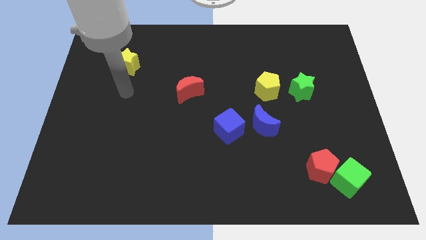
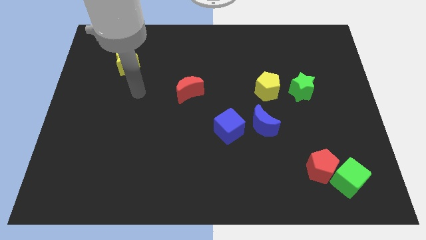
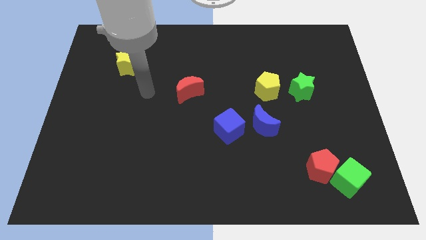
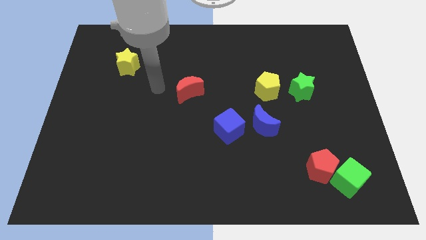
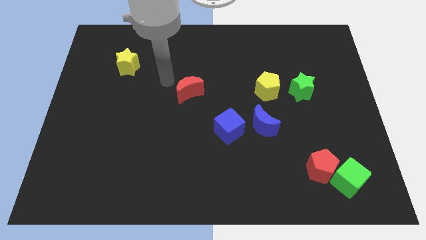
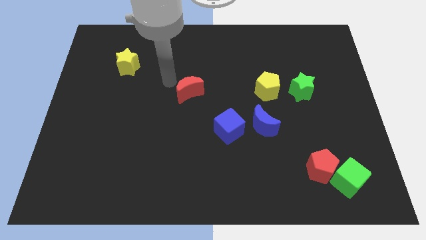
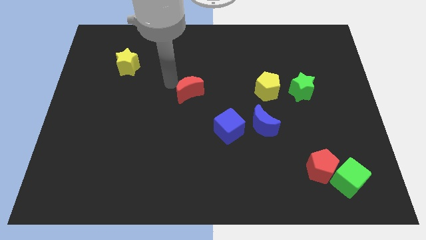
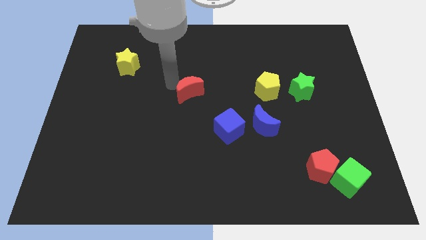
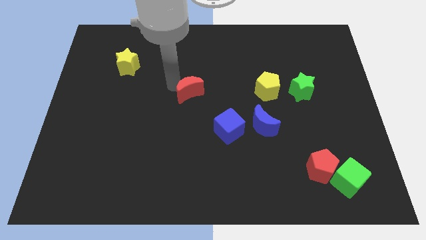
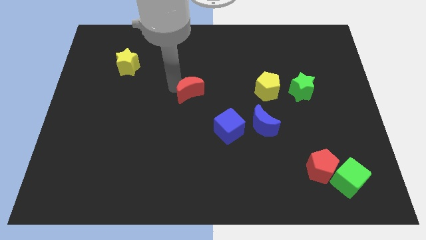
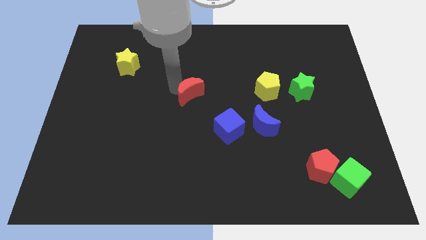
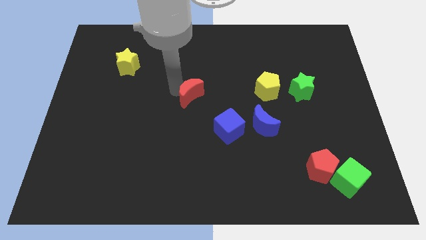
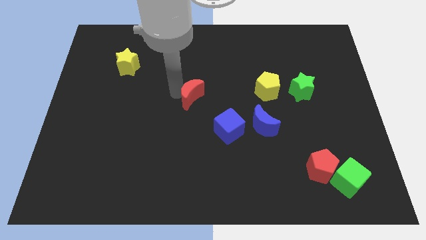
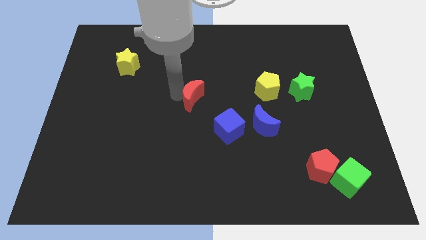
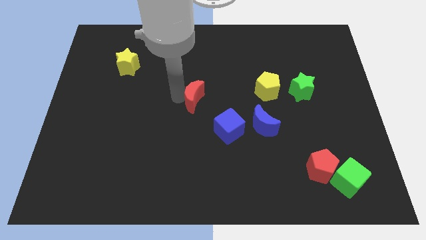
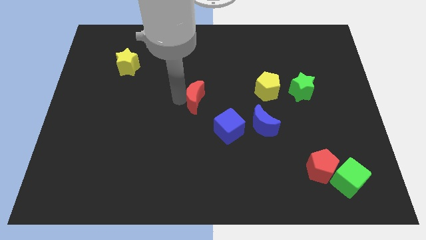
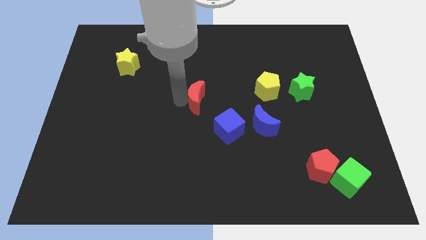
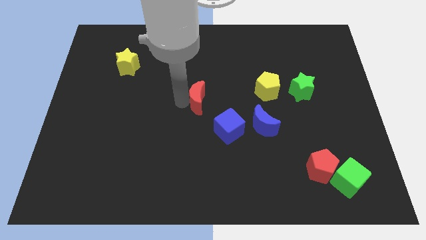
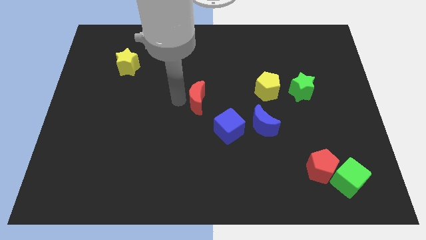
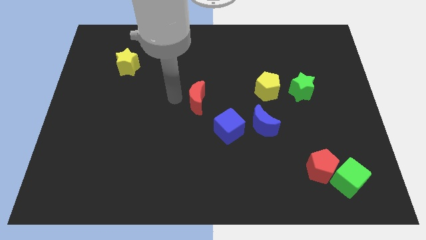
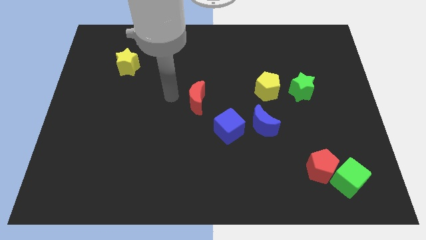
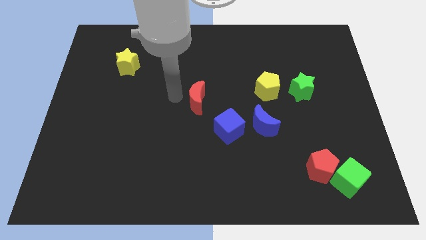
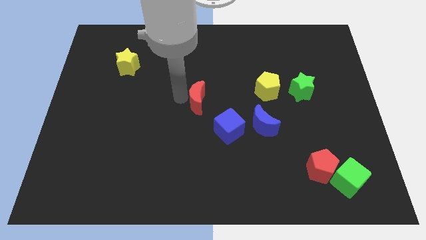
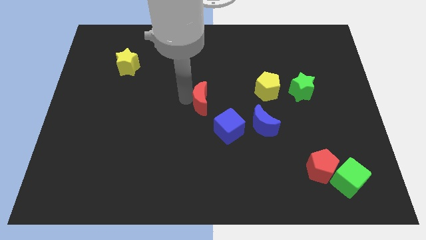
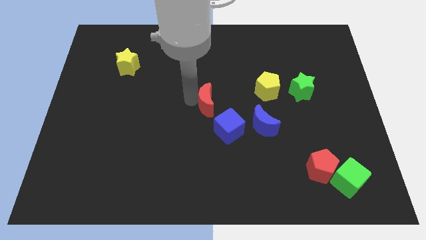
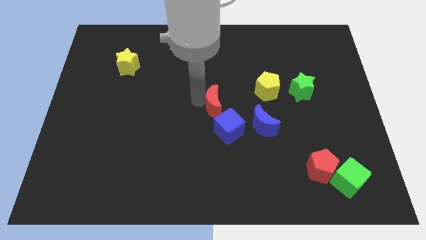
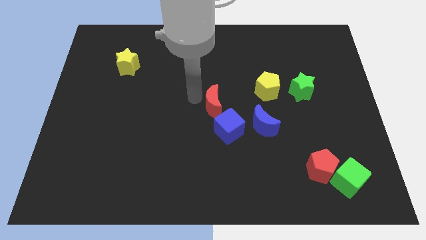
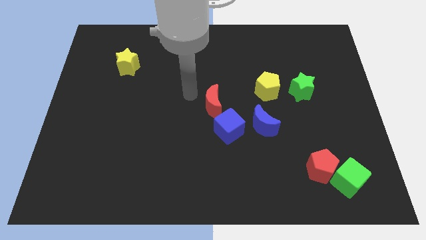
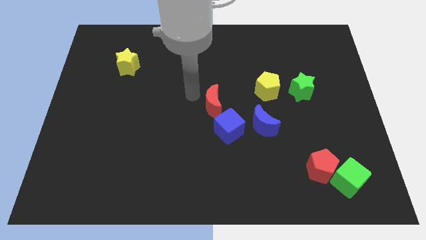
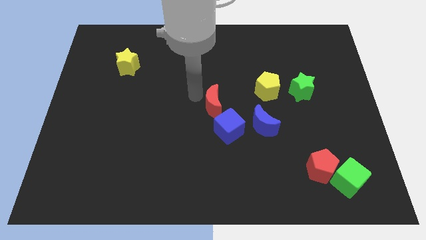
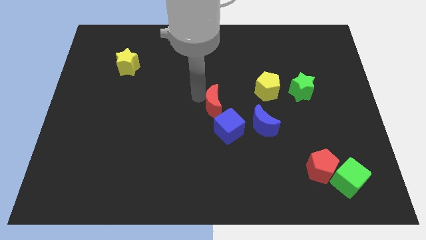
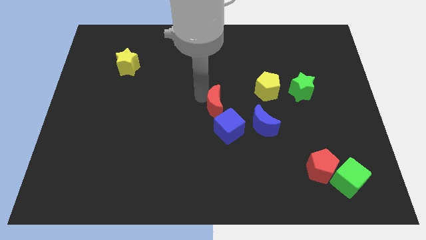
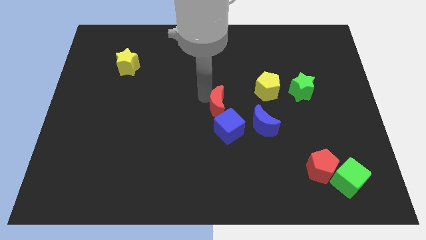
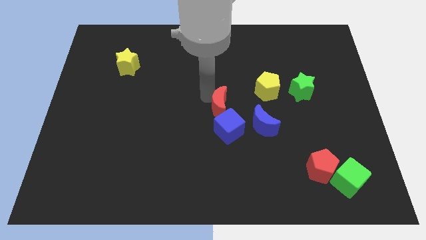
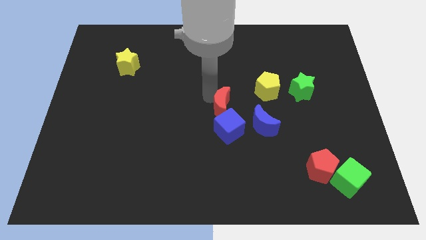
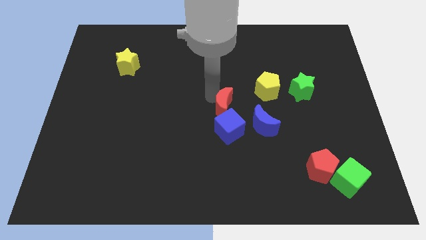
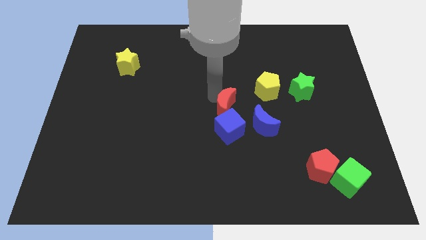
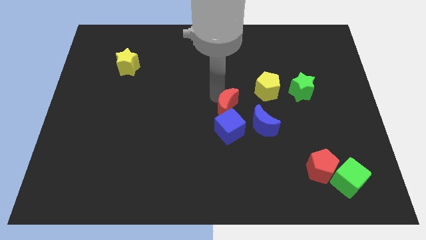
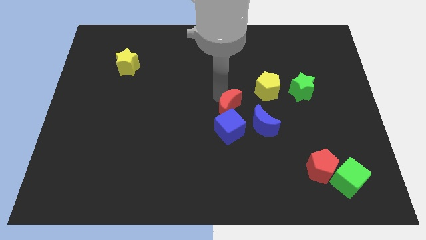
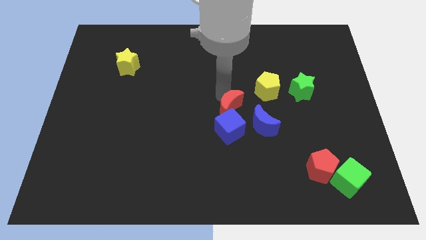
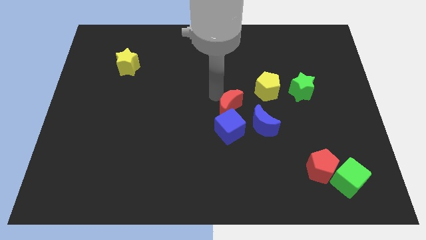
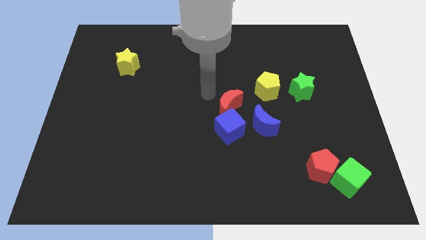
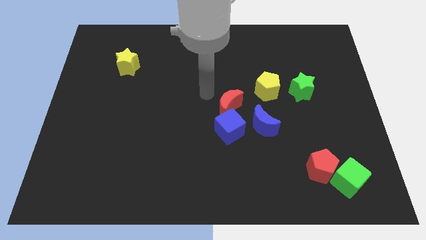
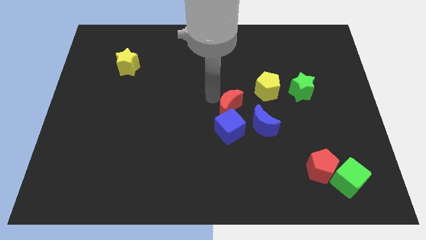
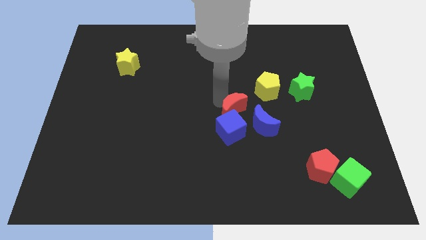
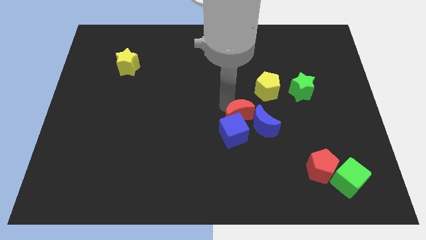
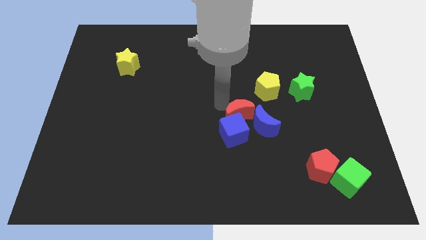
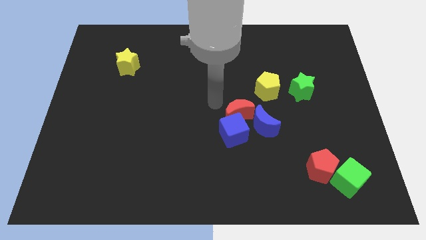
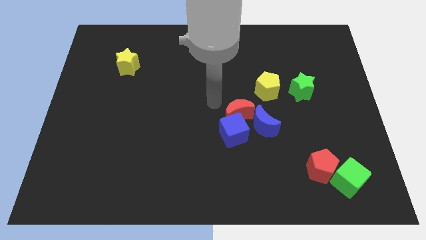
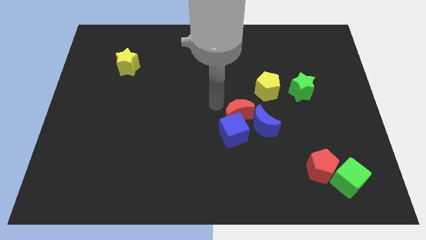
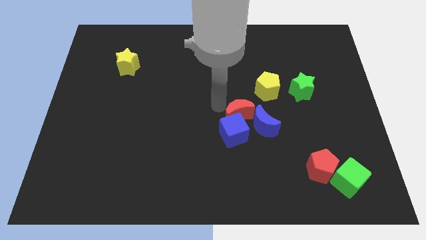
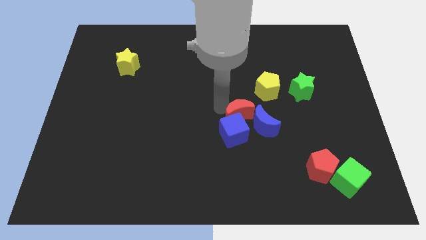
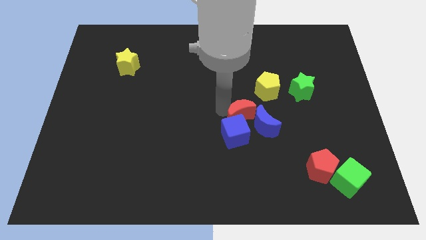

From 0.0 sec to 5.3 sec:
slide the red moon towards the blue moon

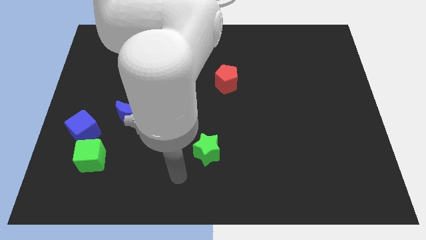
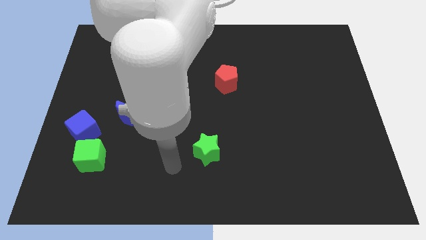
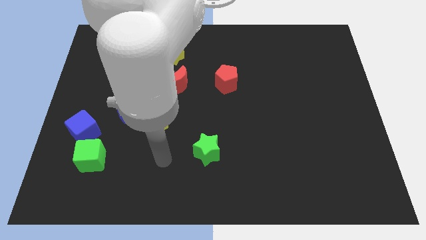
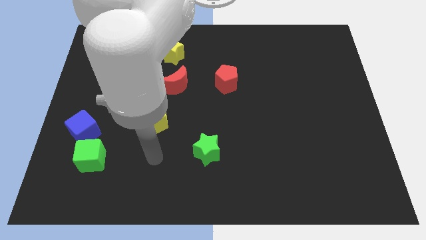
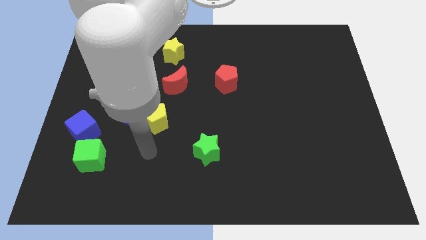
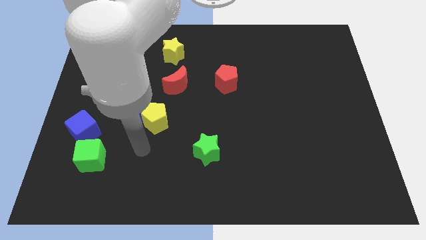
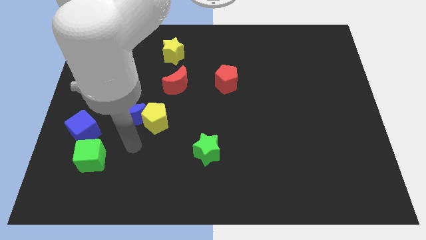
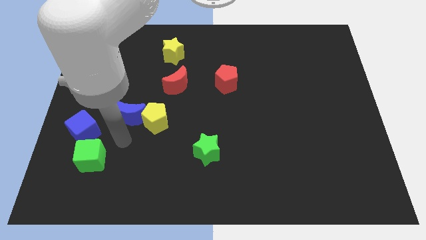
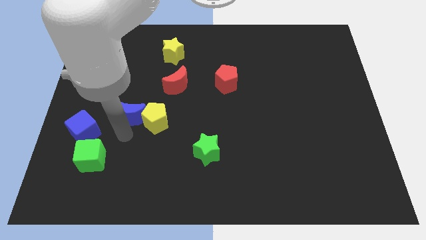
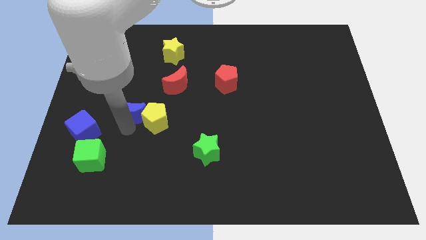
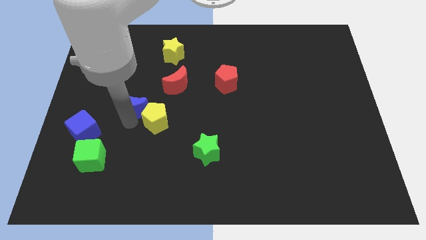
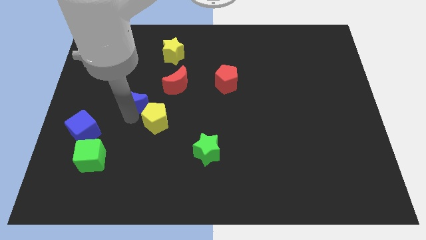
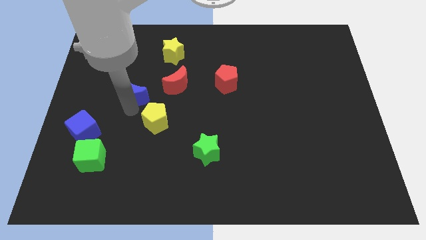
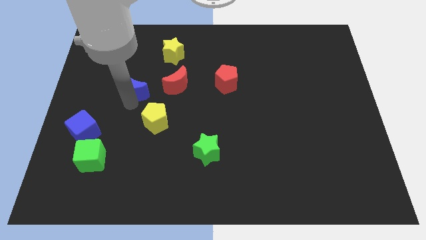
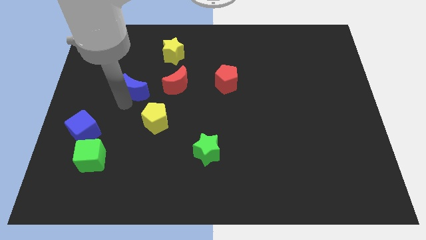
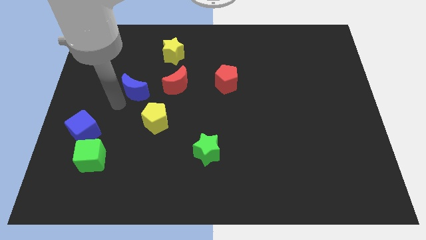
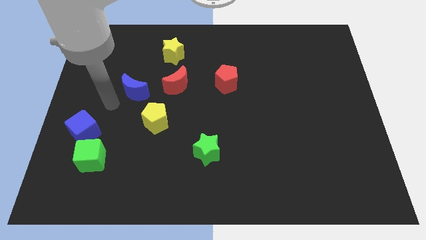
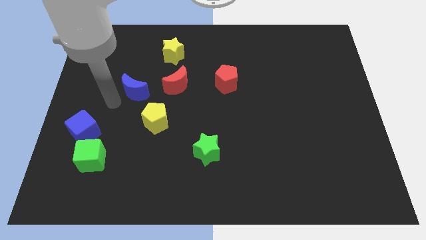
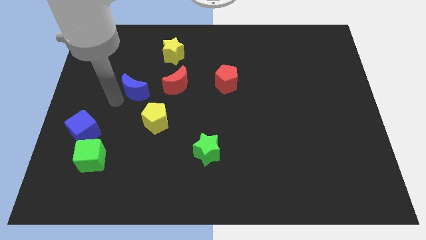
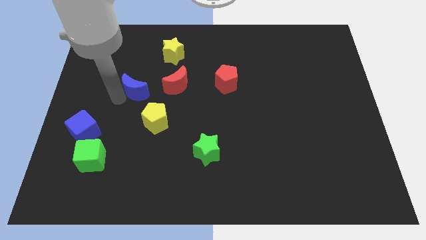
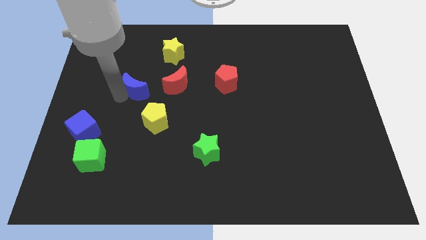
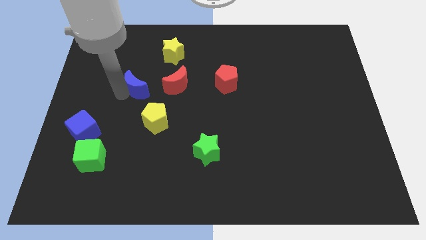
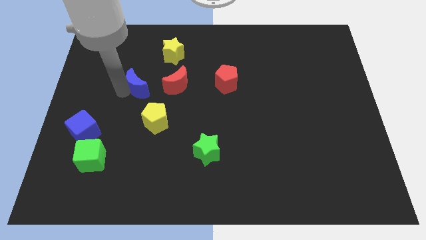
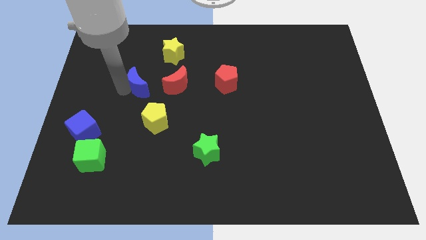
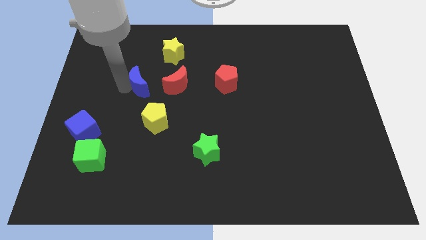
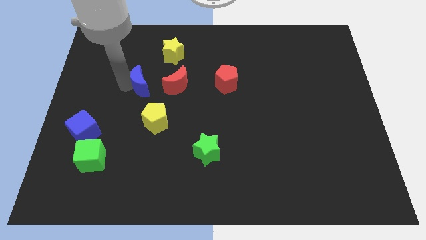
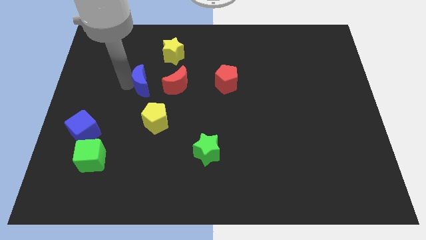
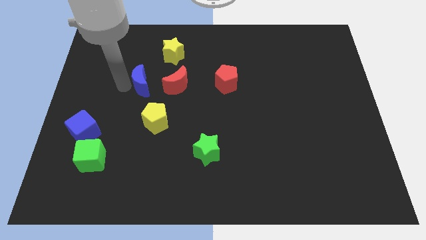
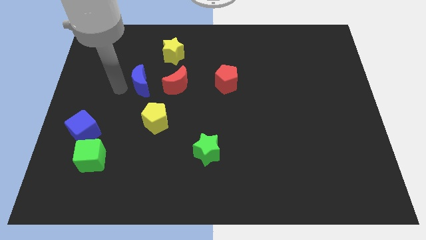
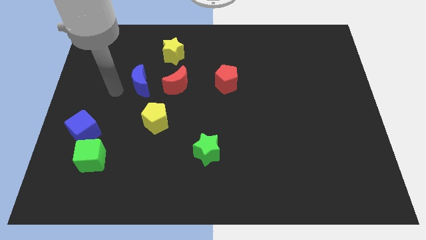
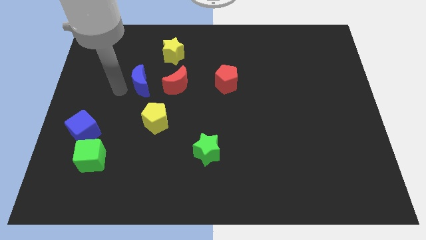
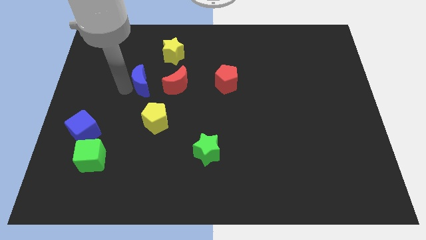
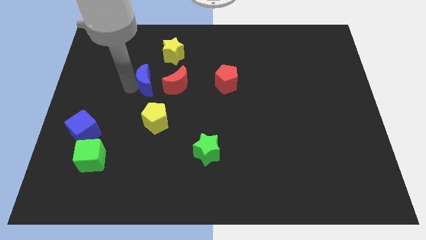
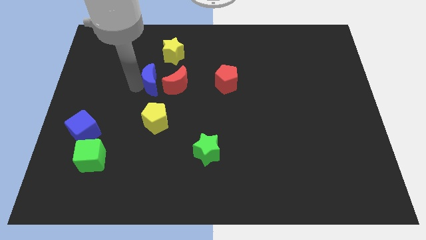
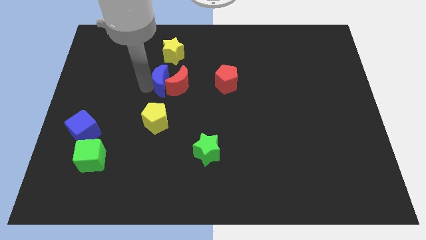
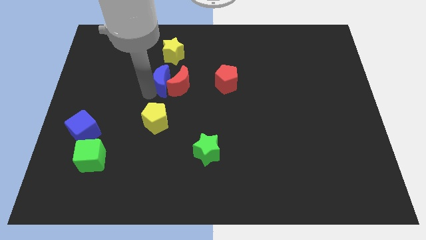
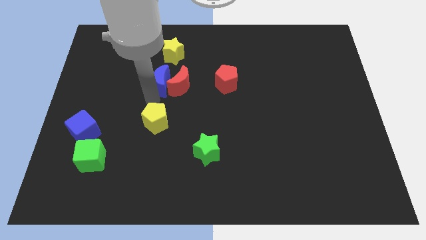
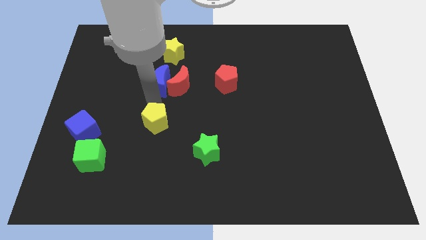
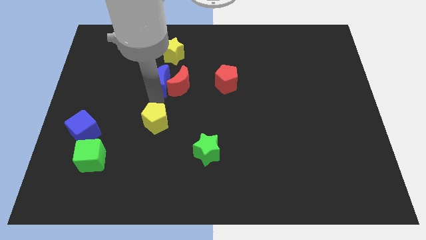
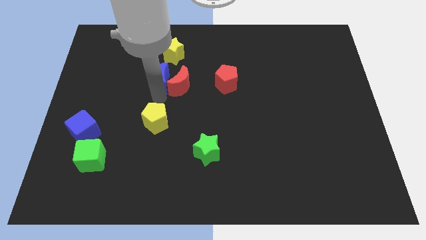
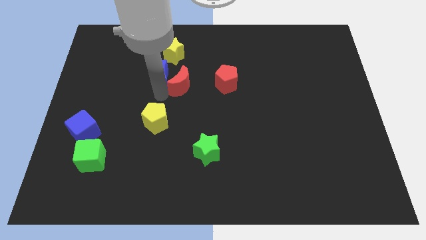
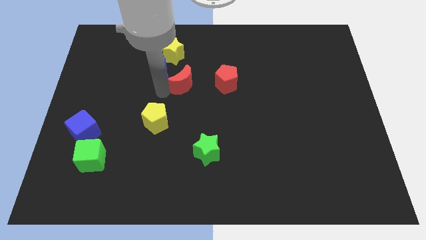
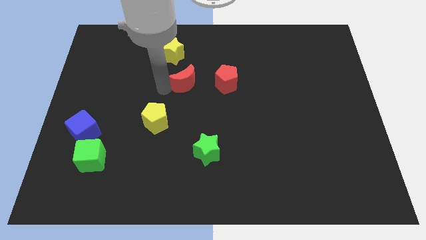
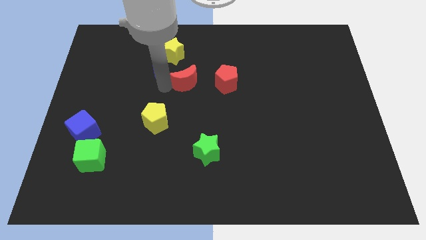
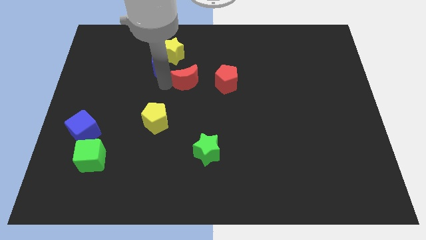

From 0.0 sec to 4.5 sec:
put the blue moon close to the yellow star
